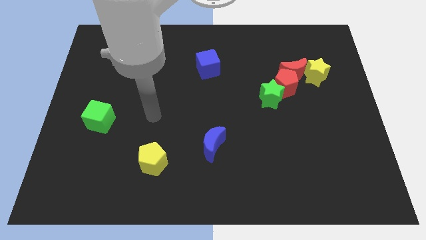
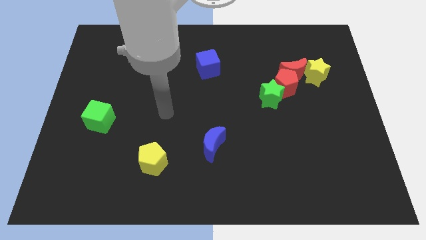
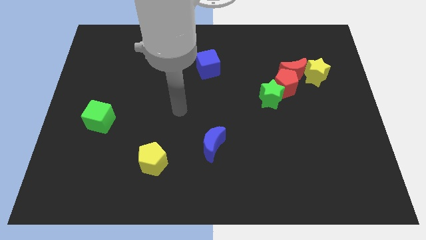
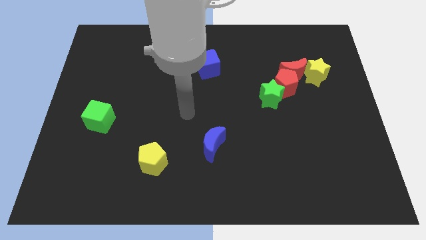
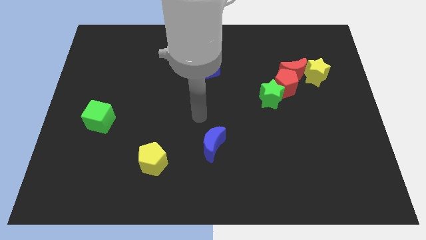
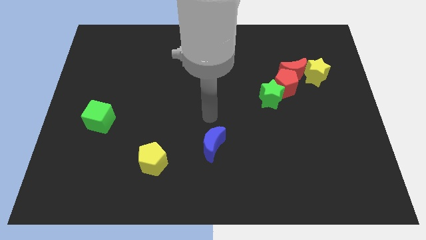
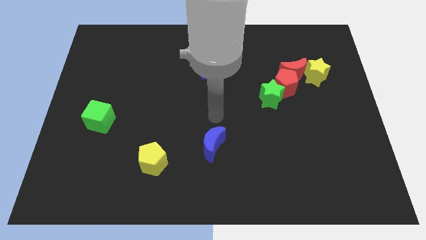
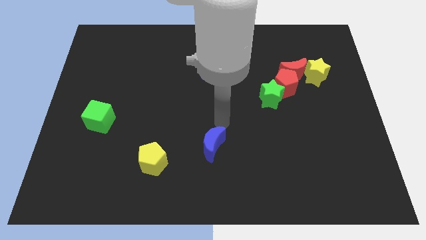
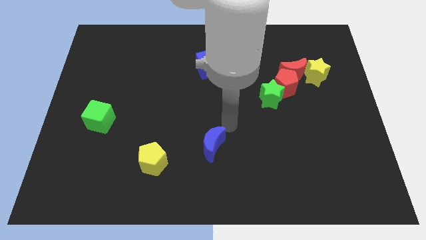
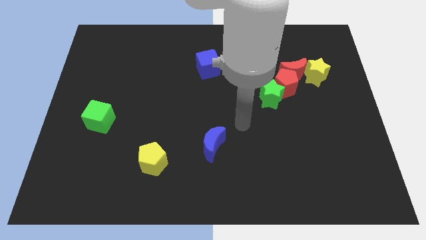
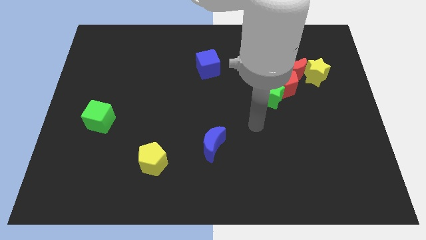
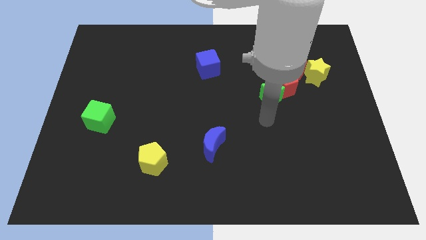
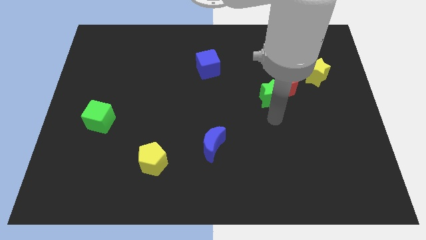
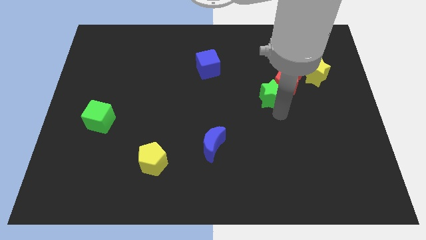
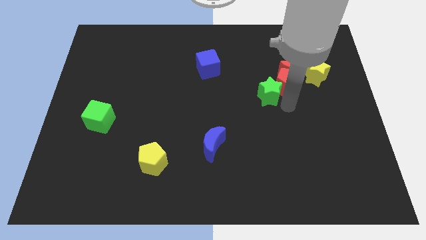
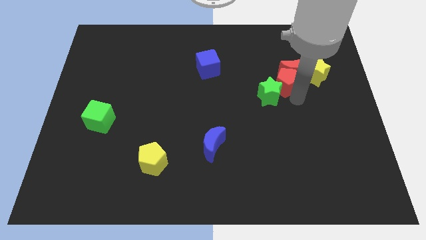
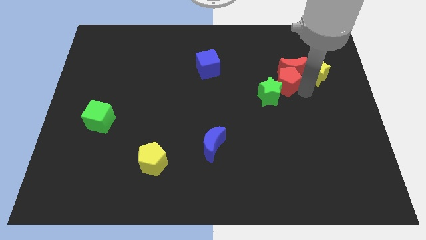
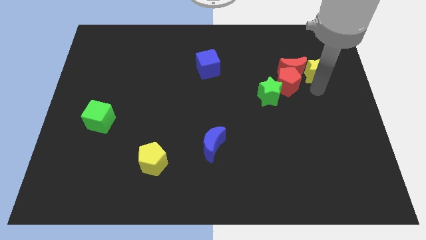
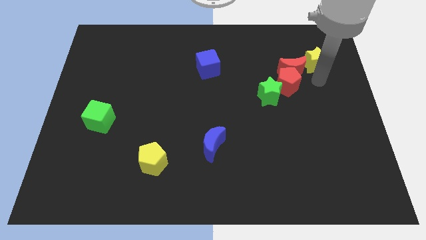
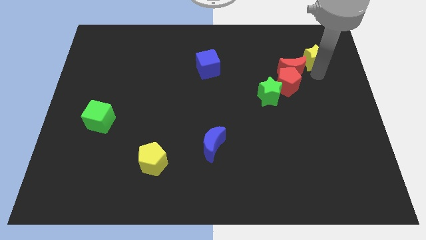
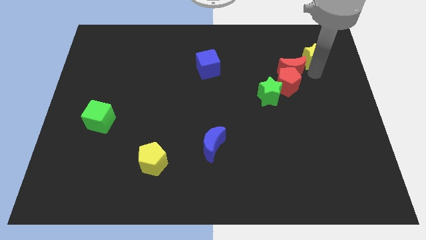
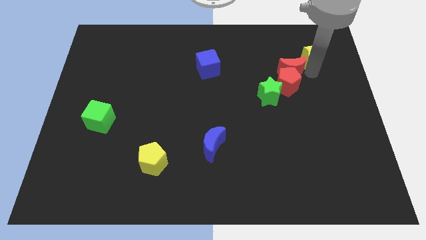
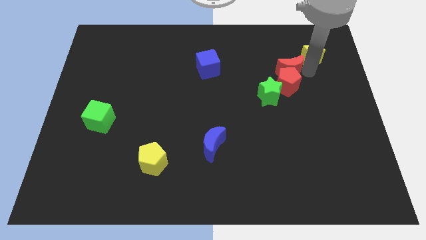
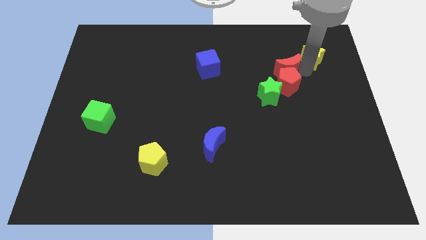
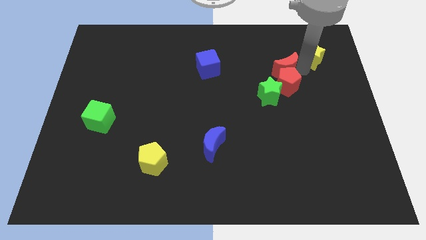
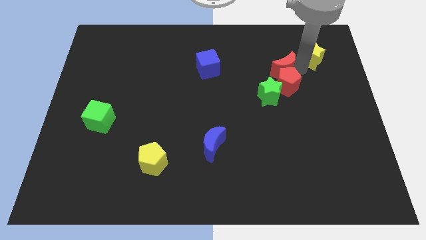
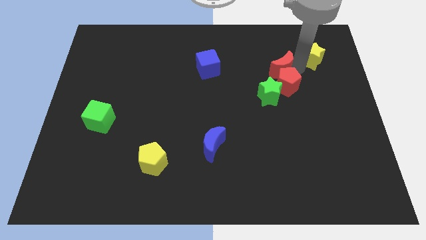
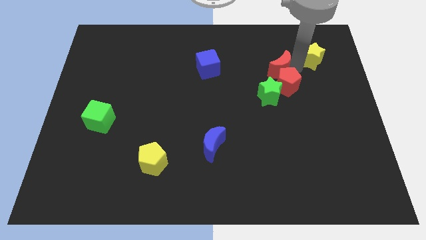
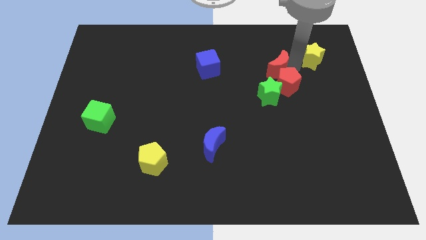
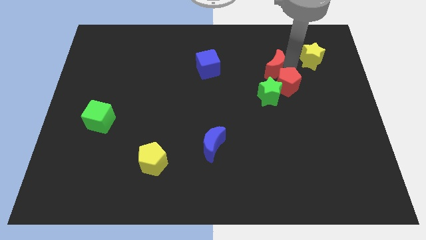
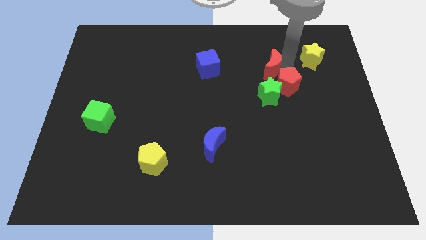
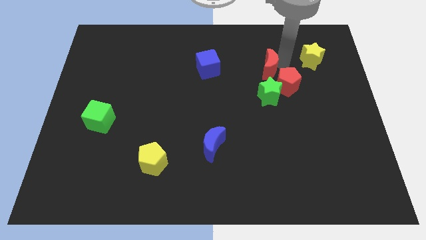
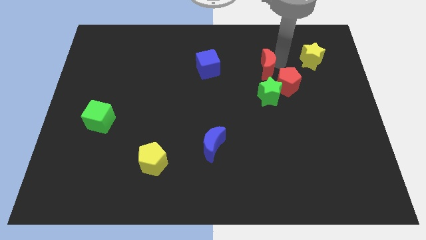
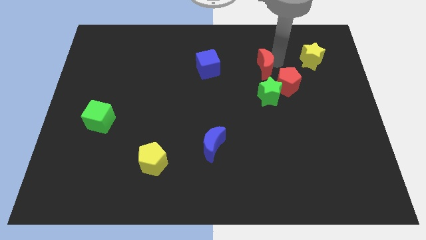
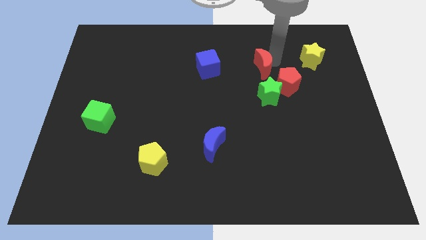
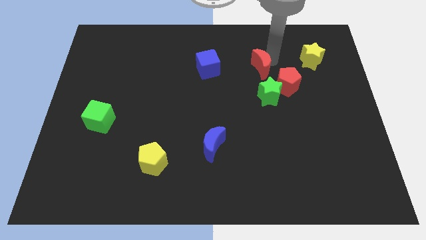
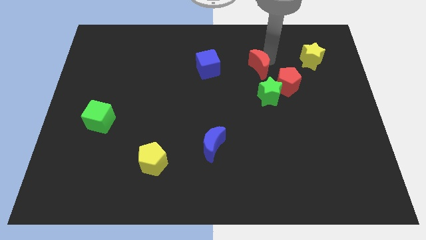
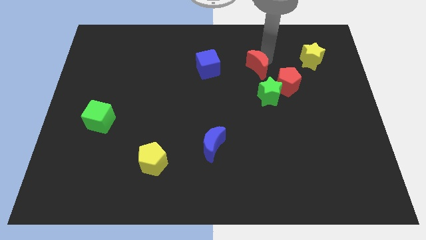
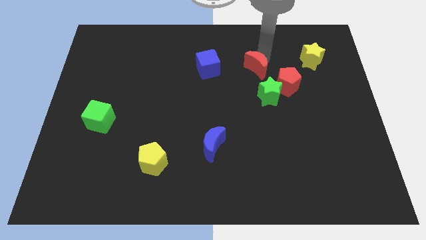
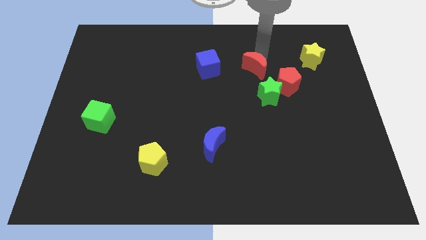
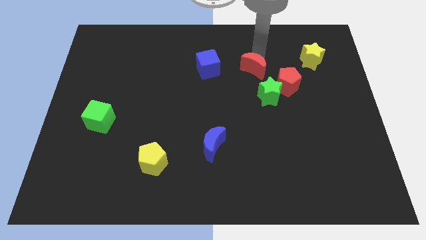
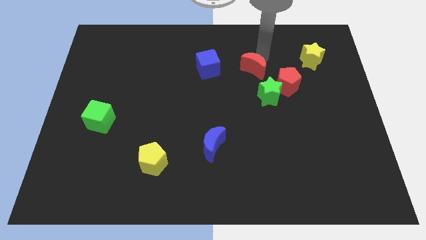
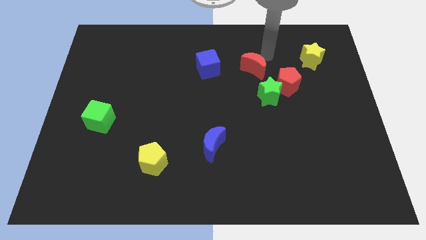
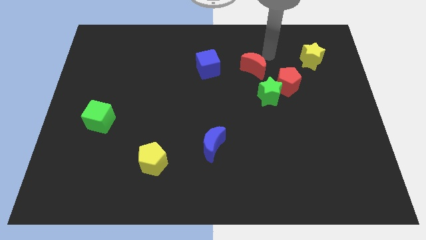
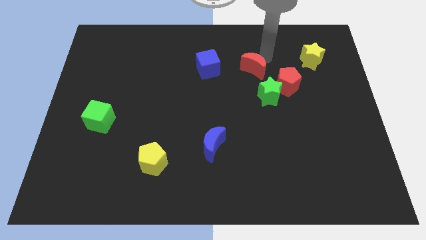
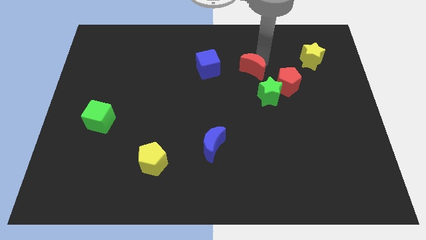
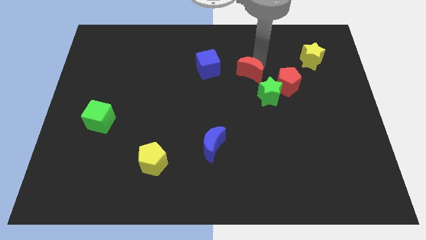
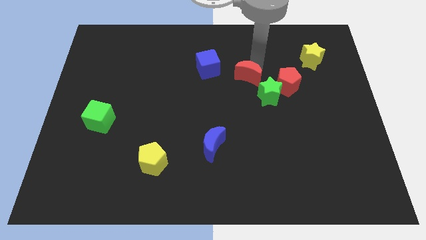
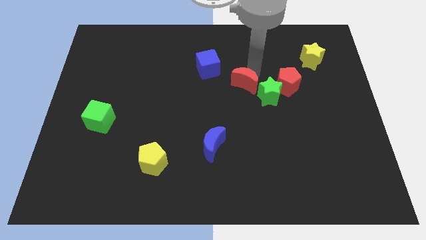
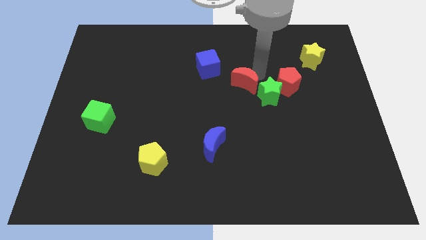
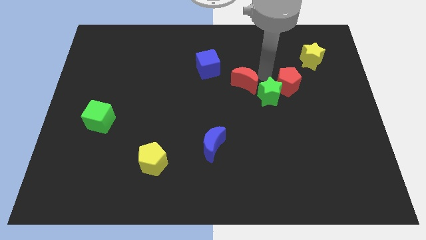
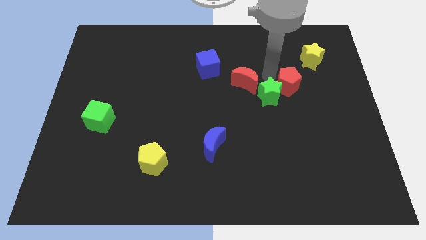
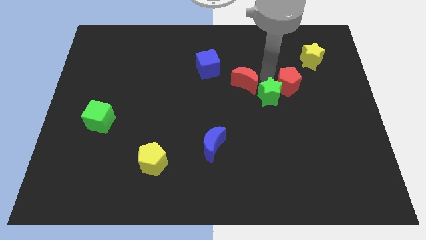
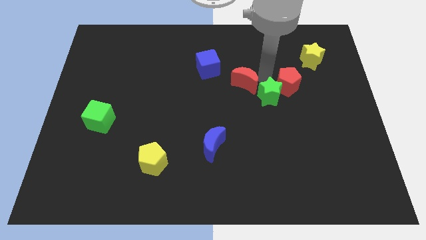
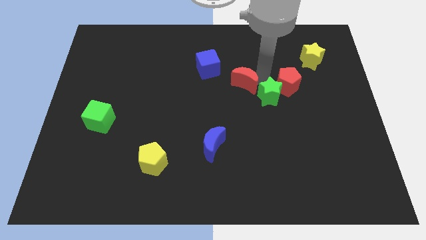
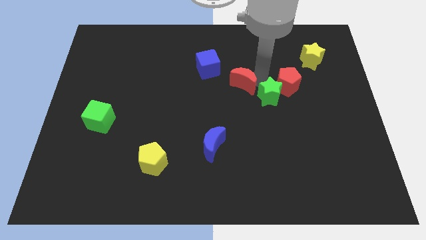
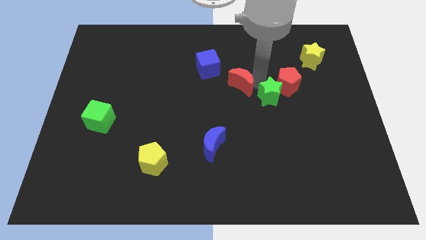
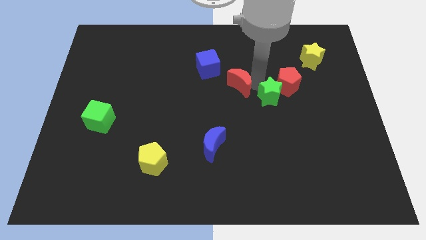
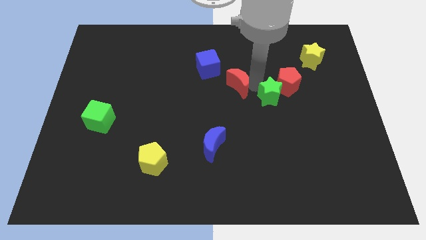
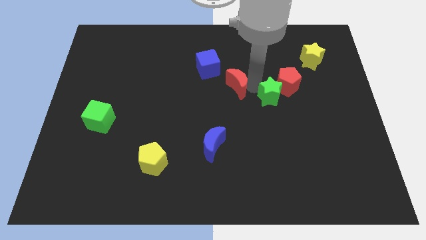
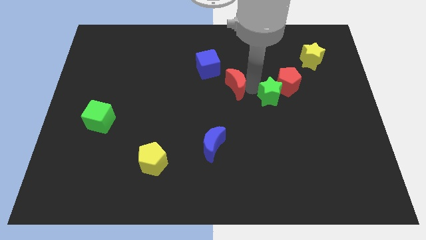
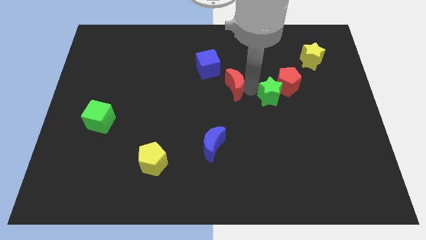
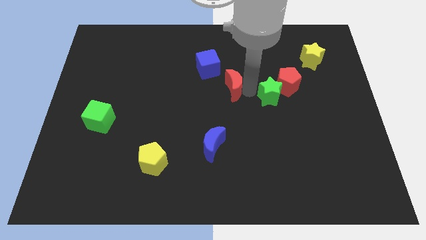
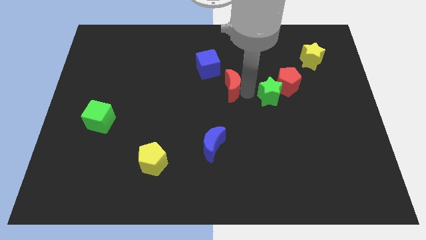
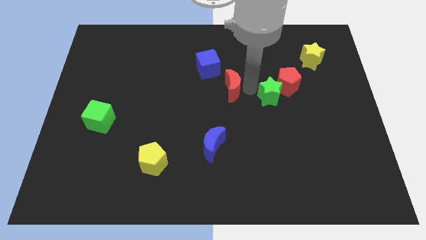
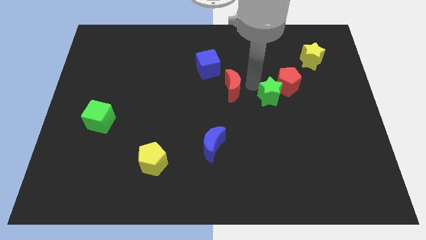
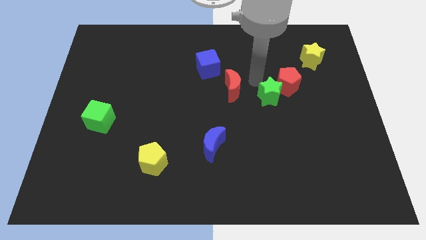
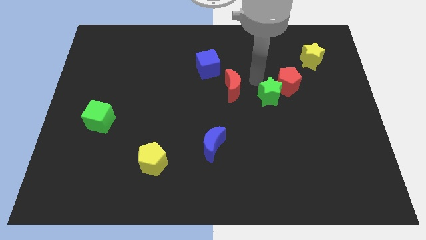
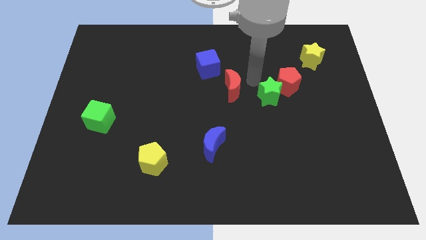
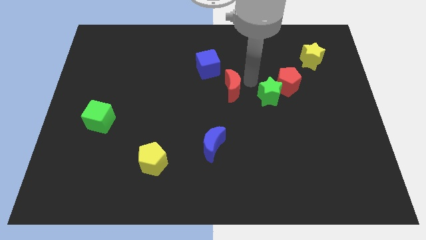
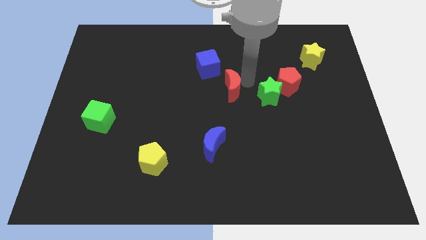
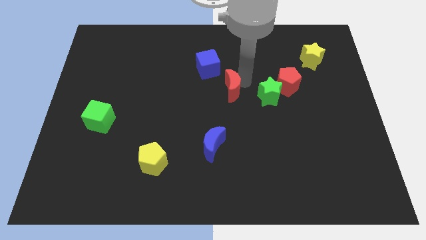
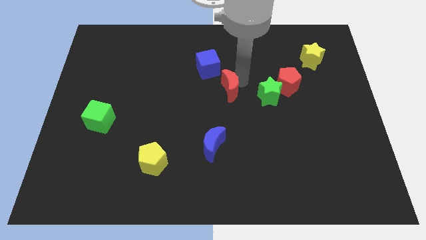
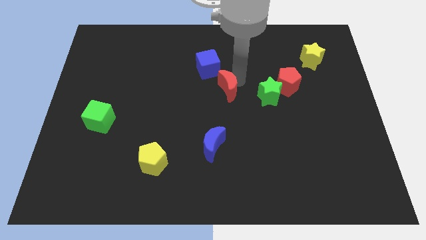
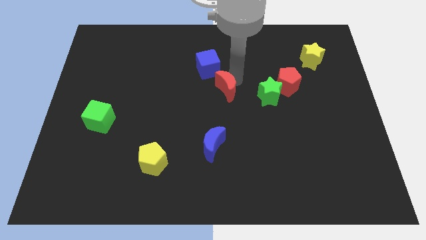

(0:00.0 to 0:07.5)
put the red moon to the bottom of the blue cube
